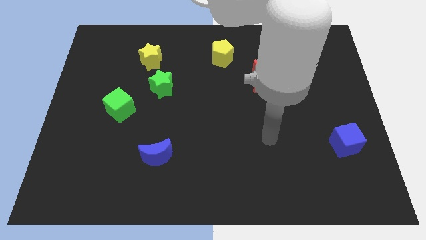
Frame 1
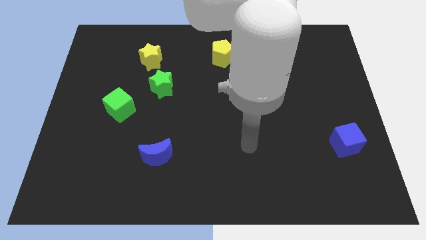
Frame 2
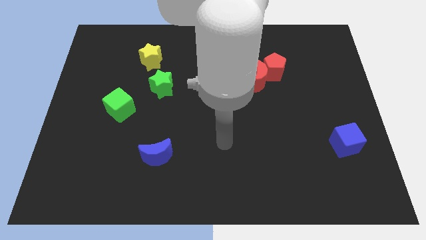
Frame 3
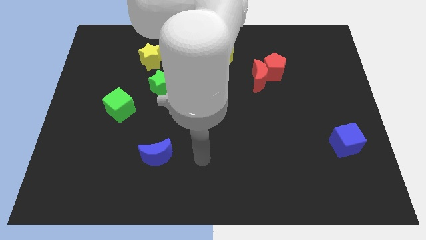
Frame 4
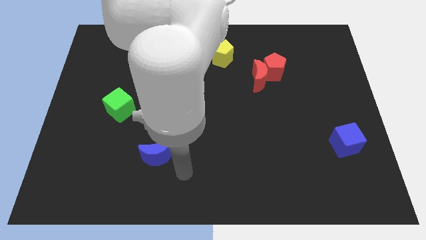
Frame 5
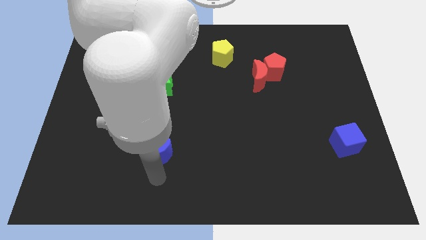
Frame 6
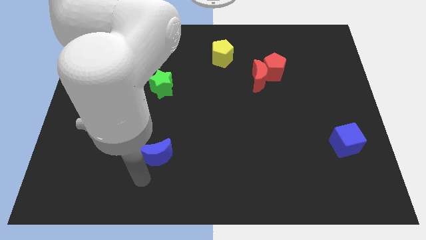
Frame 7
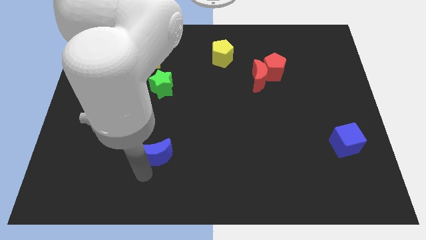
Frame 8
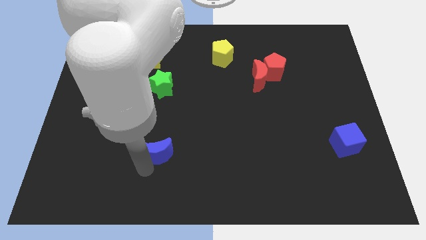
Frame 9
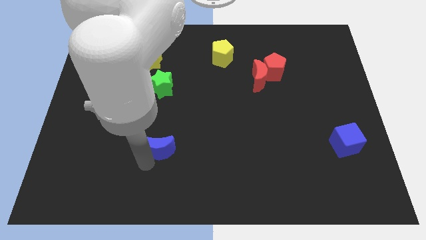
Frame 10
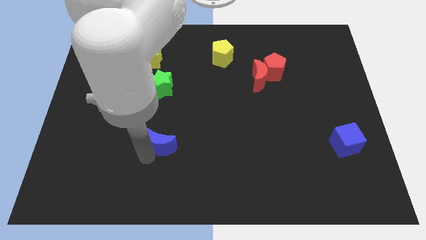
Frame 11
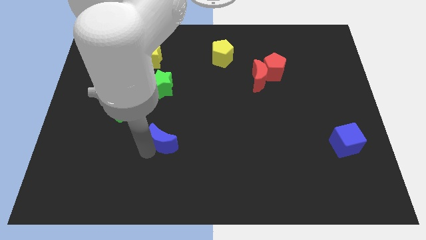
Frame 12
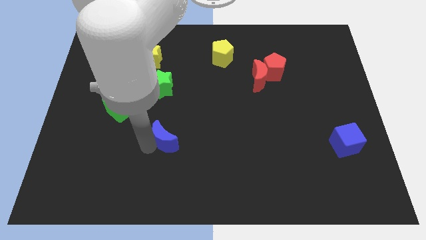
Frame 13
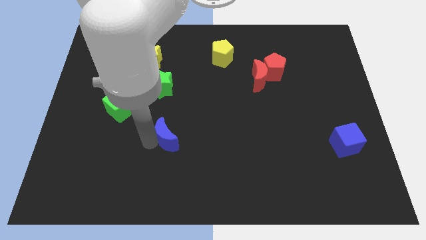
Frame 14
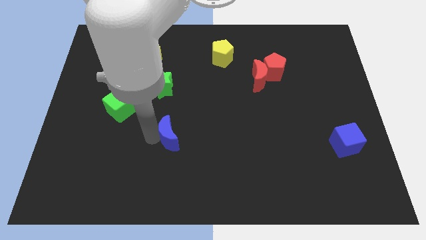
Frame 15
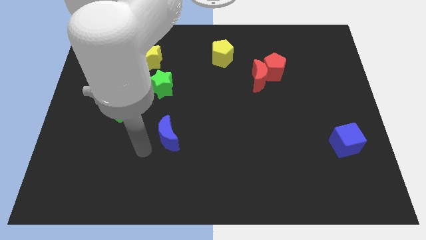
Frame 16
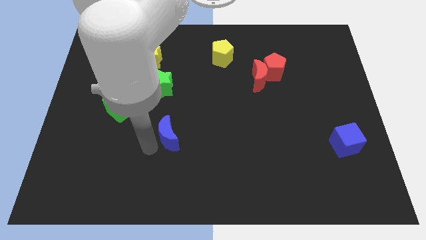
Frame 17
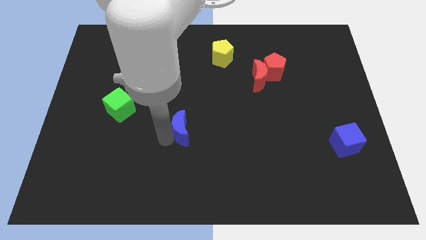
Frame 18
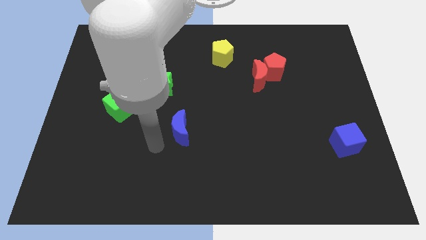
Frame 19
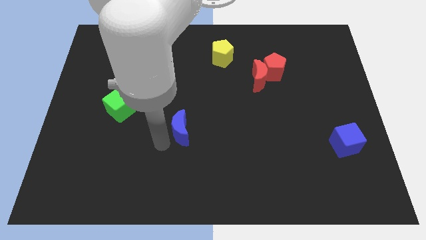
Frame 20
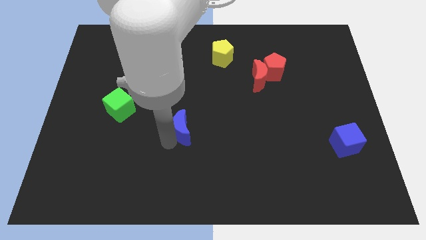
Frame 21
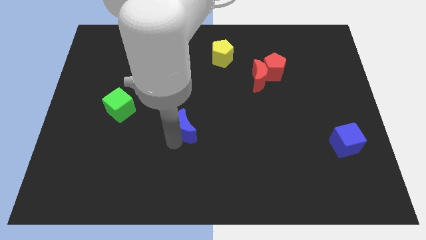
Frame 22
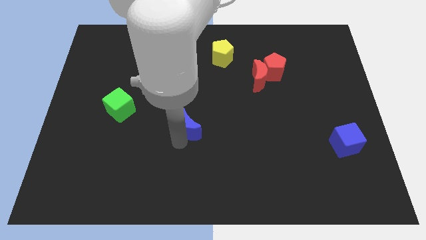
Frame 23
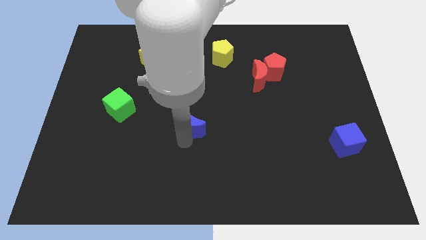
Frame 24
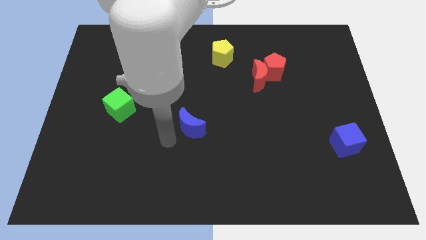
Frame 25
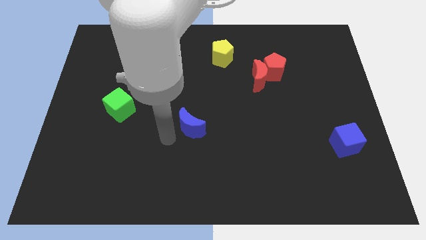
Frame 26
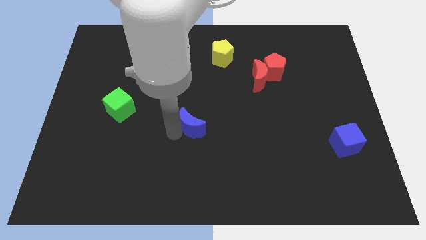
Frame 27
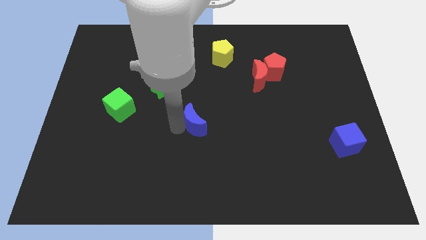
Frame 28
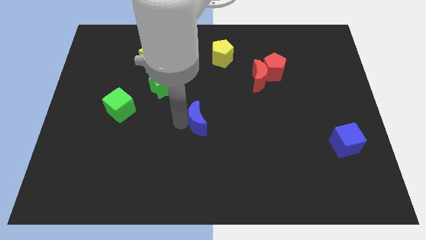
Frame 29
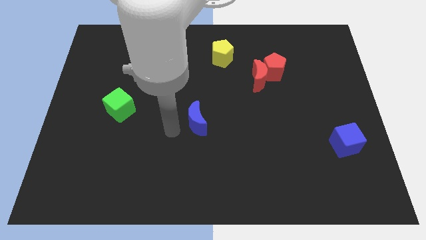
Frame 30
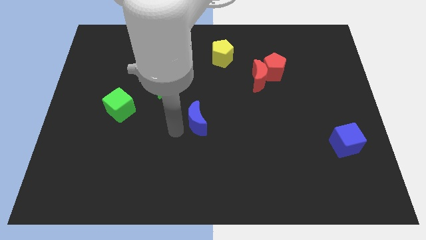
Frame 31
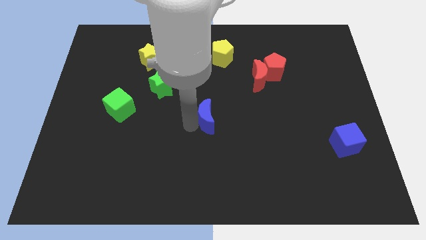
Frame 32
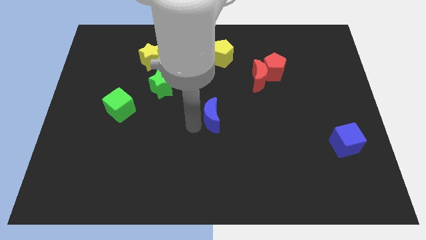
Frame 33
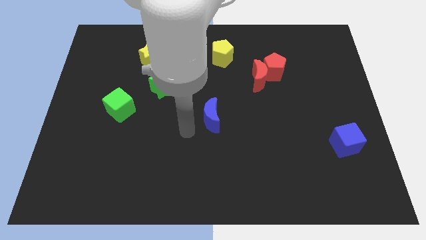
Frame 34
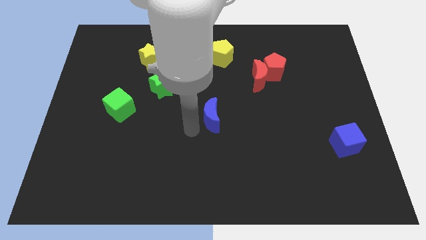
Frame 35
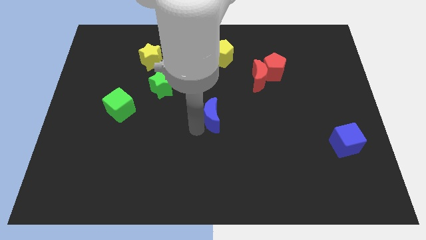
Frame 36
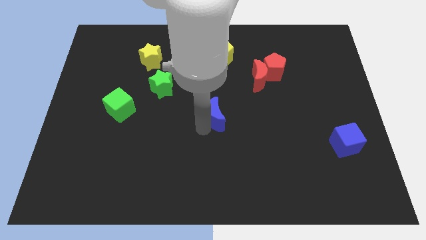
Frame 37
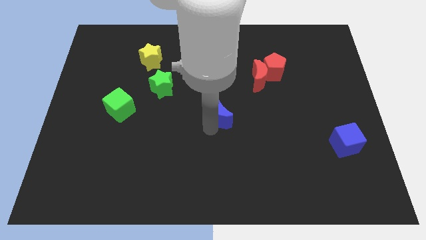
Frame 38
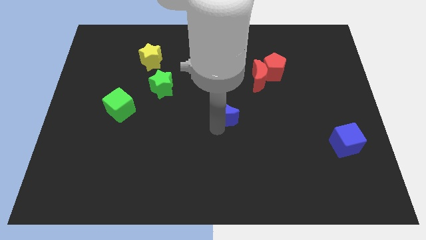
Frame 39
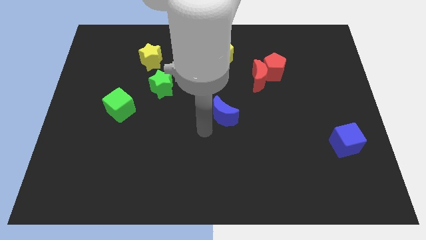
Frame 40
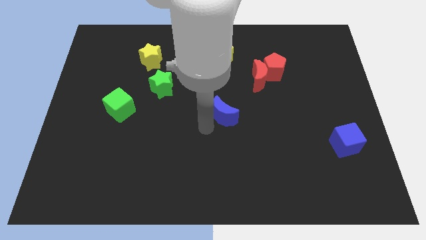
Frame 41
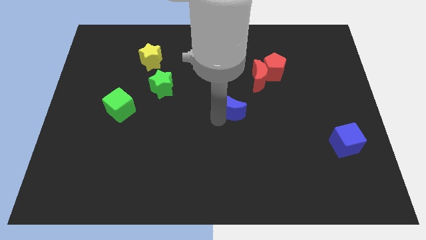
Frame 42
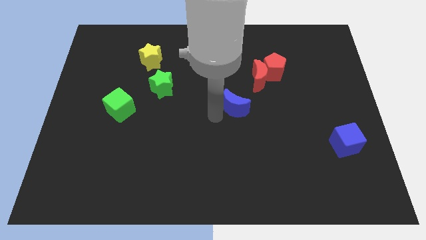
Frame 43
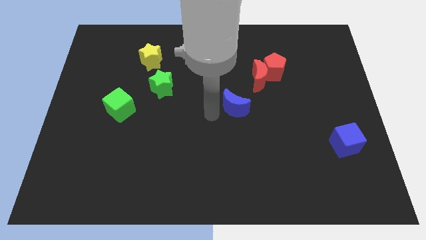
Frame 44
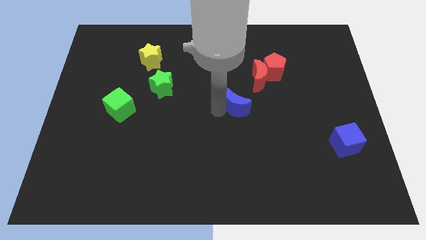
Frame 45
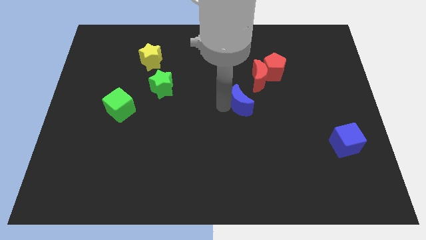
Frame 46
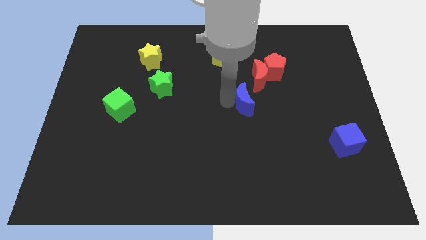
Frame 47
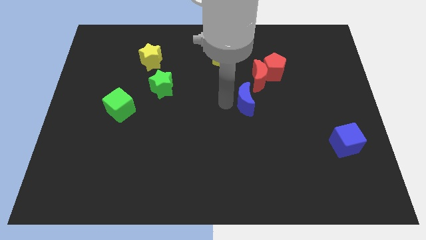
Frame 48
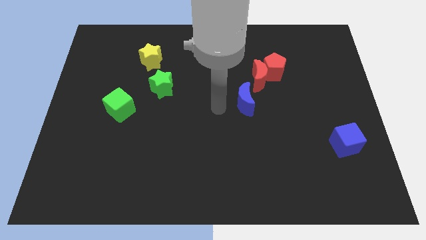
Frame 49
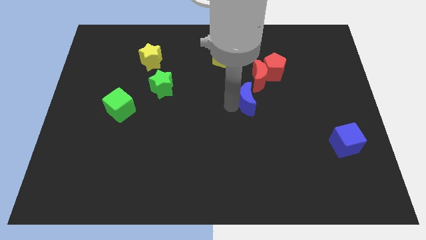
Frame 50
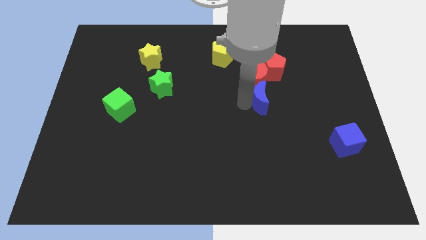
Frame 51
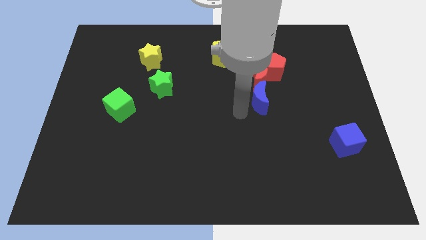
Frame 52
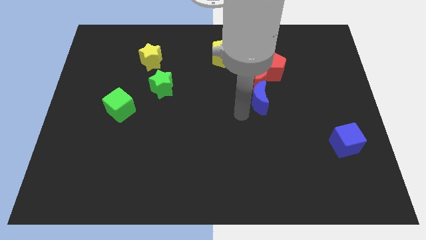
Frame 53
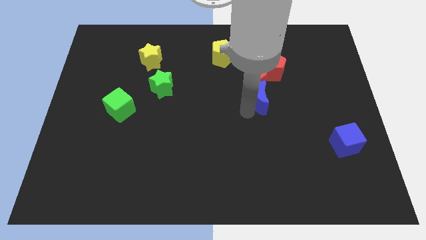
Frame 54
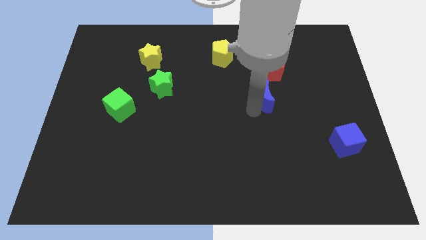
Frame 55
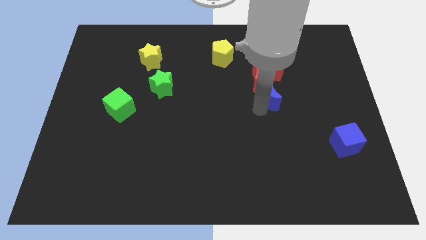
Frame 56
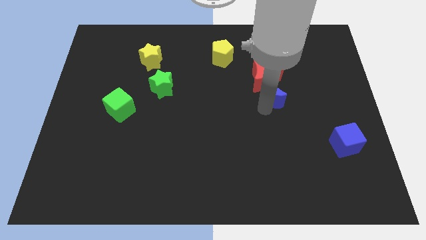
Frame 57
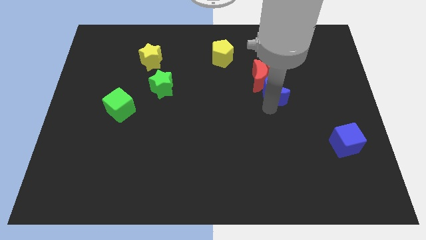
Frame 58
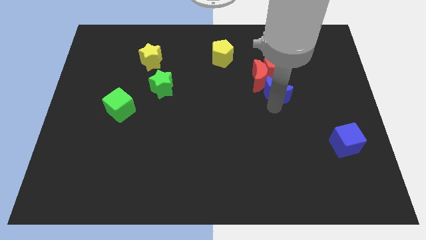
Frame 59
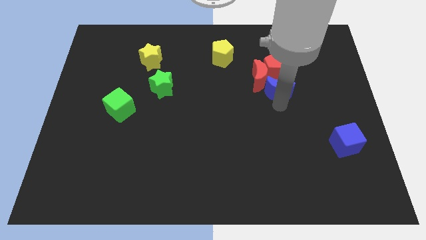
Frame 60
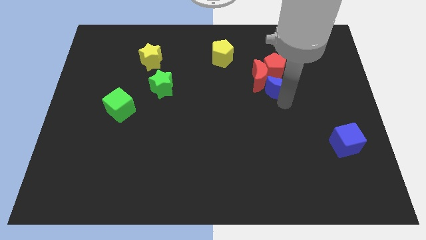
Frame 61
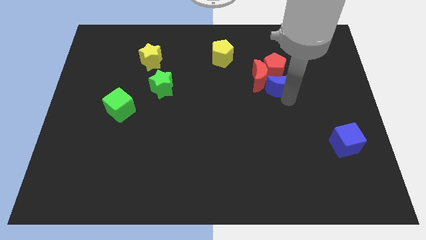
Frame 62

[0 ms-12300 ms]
slide the blue moon close to the red pentagon

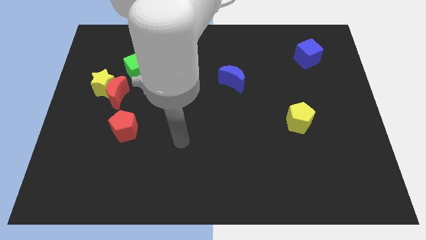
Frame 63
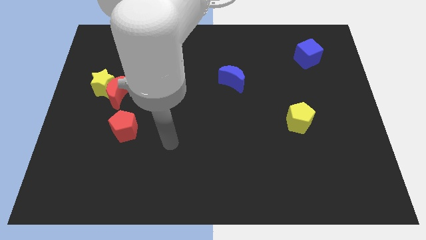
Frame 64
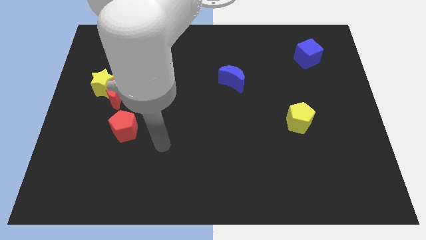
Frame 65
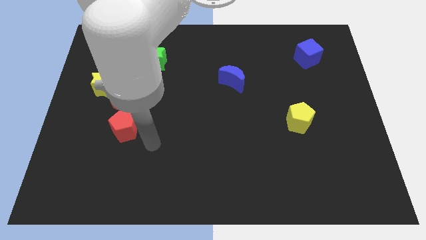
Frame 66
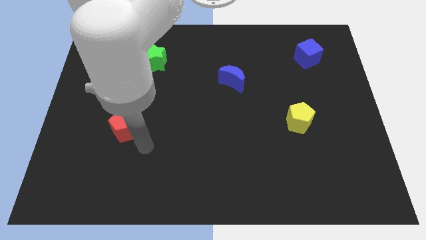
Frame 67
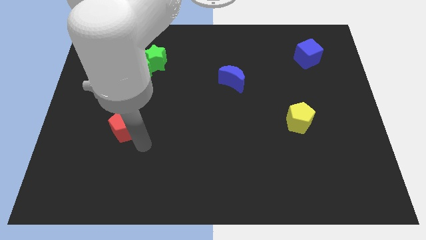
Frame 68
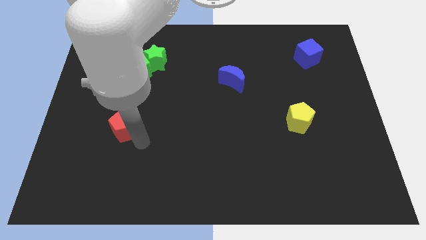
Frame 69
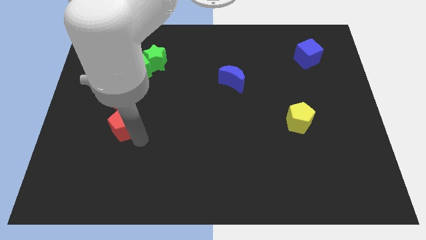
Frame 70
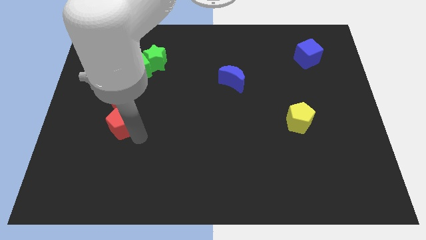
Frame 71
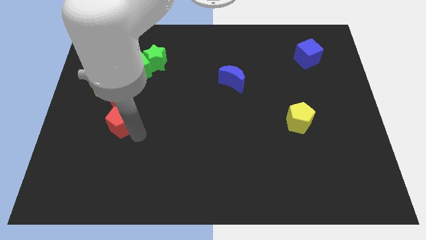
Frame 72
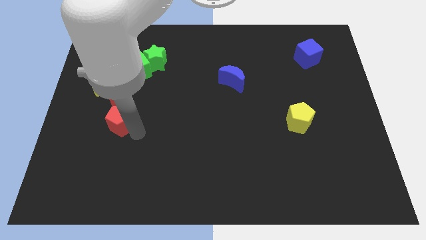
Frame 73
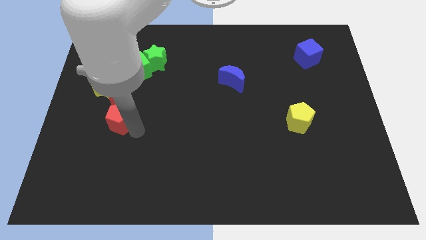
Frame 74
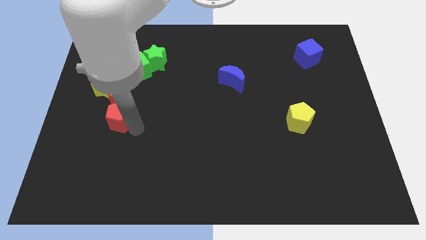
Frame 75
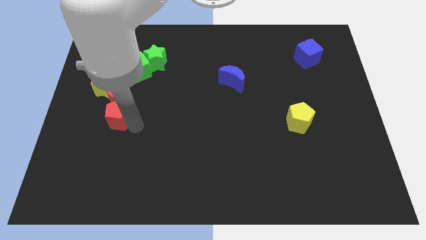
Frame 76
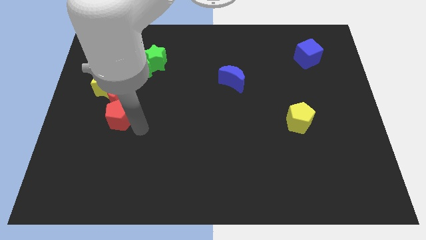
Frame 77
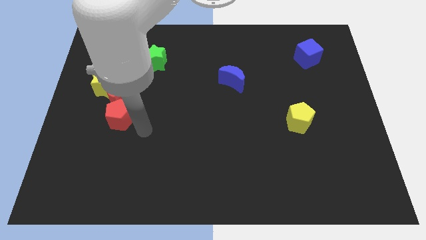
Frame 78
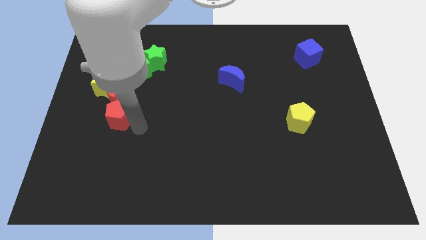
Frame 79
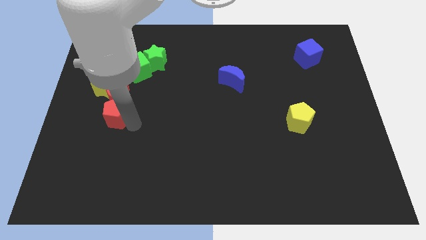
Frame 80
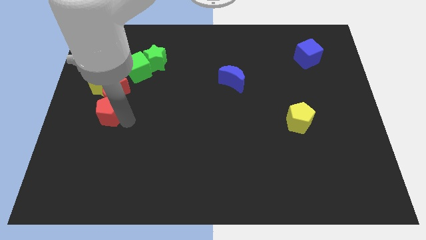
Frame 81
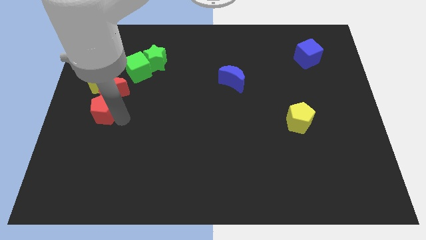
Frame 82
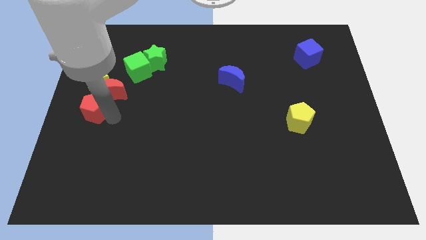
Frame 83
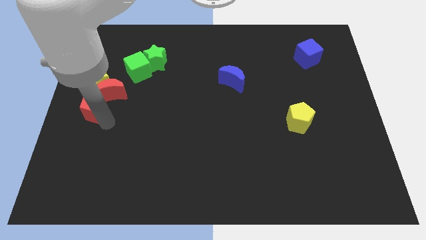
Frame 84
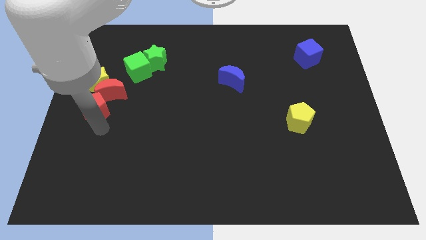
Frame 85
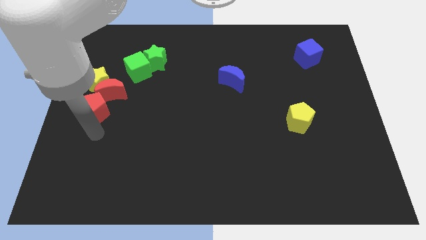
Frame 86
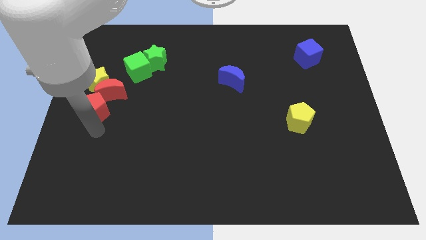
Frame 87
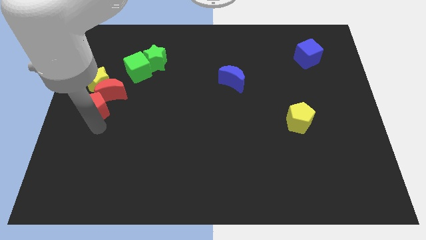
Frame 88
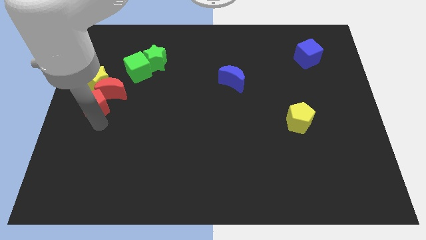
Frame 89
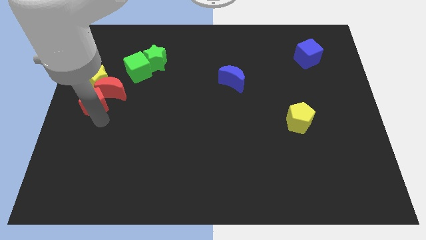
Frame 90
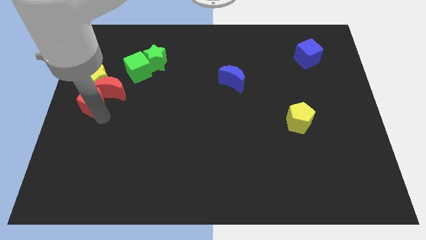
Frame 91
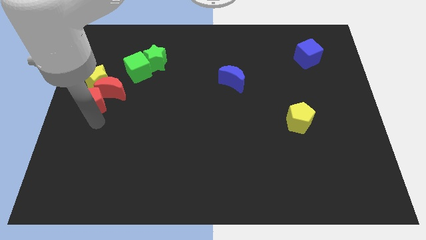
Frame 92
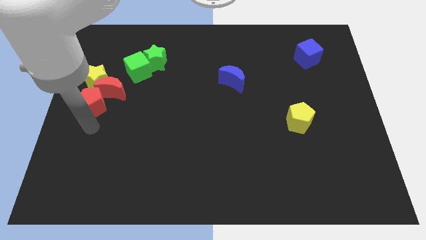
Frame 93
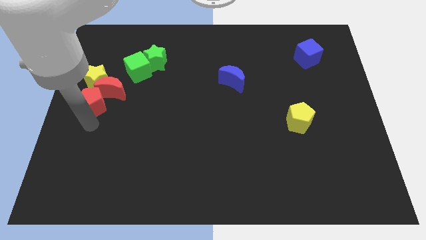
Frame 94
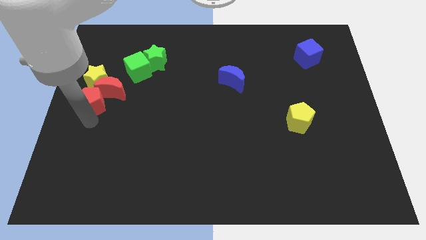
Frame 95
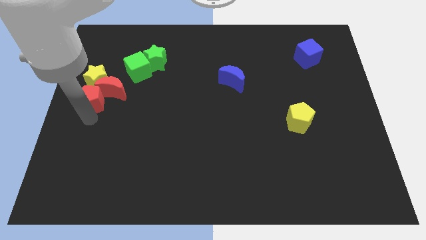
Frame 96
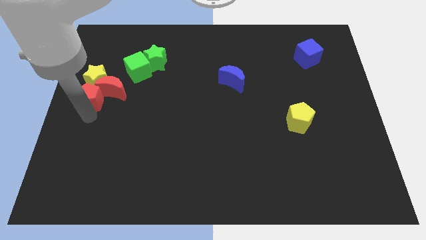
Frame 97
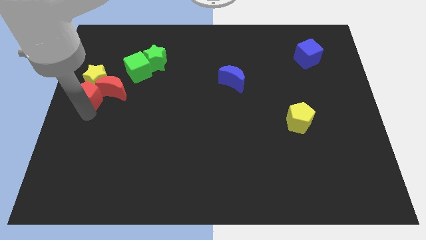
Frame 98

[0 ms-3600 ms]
push the red pentagon to the yellow star
